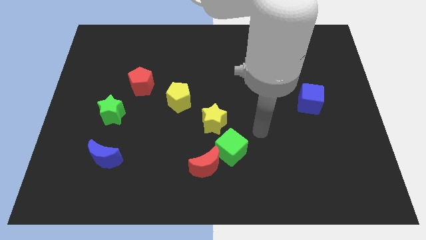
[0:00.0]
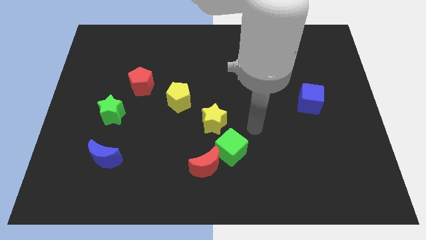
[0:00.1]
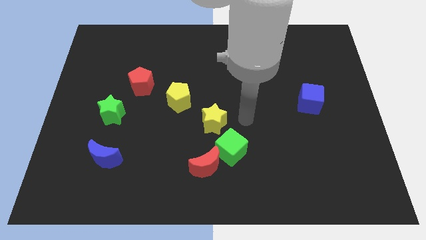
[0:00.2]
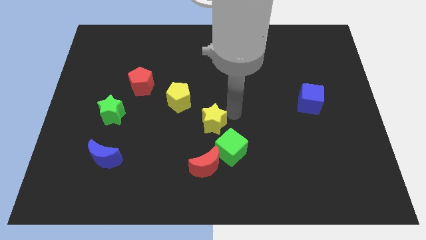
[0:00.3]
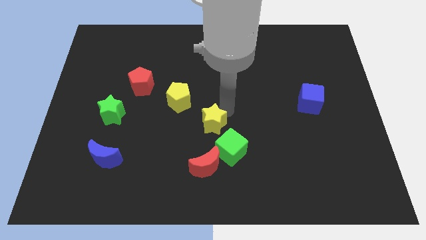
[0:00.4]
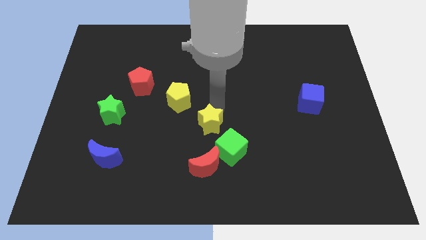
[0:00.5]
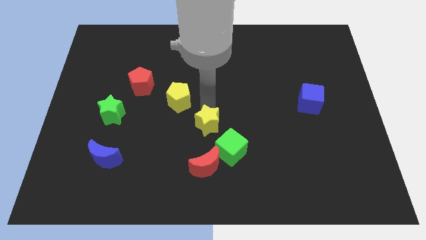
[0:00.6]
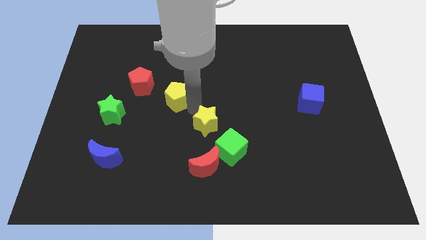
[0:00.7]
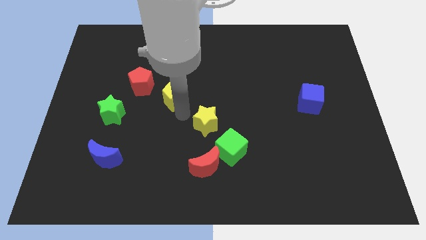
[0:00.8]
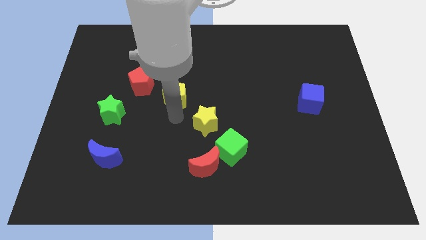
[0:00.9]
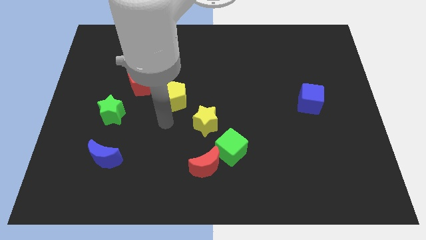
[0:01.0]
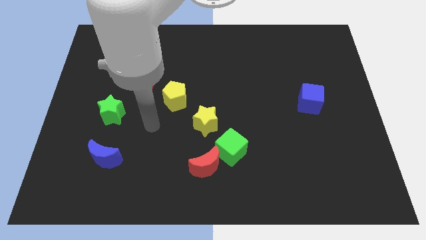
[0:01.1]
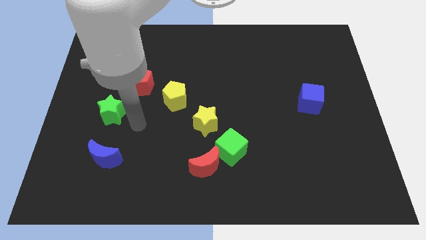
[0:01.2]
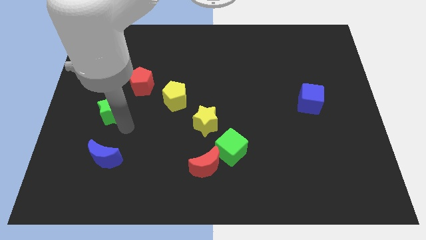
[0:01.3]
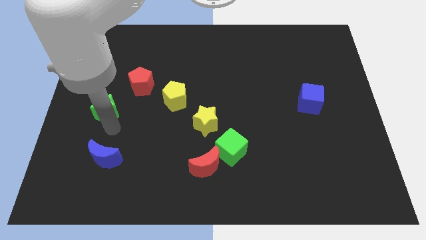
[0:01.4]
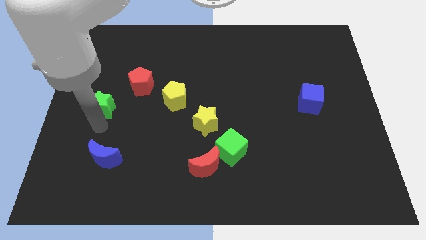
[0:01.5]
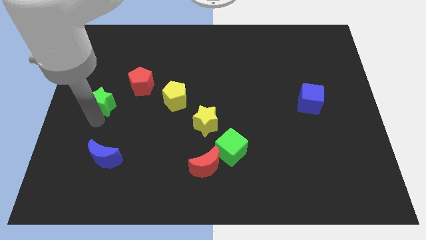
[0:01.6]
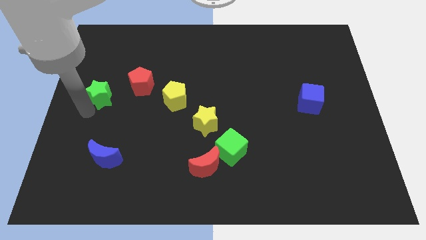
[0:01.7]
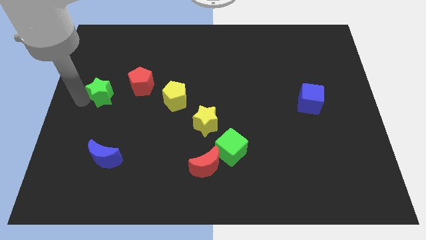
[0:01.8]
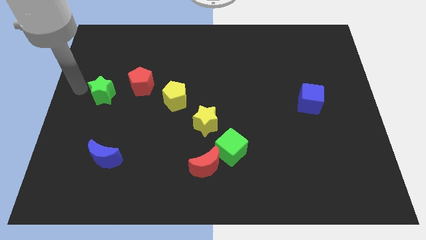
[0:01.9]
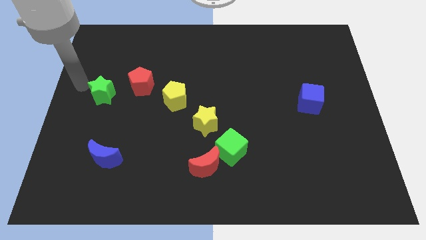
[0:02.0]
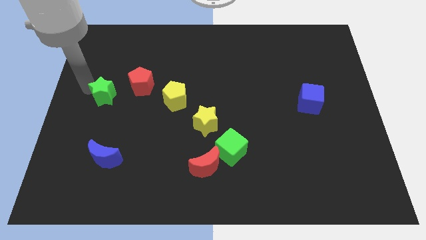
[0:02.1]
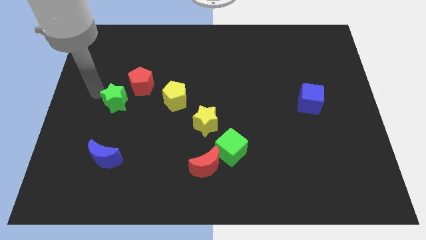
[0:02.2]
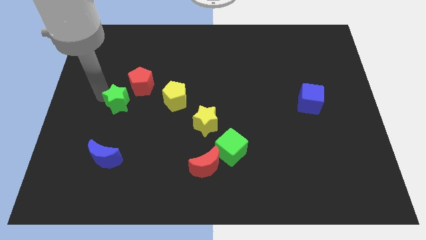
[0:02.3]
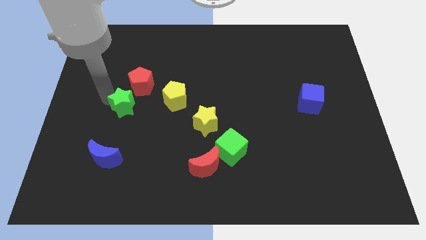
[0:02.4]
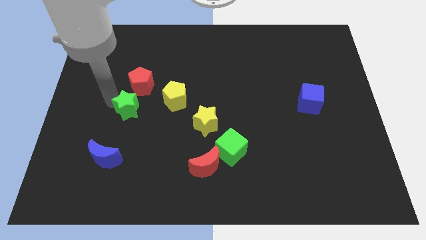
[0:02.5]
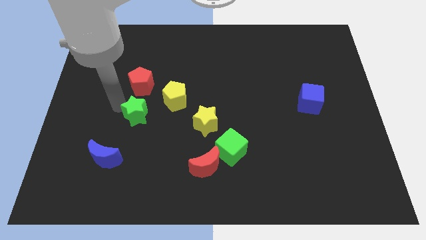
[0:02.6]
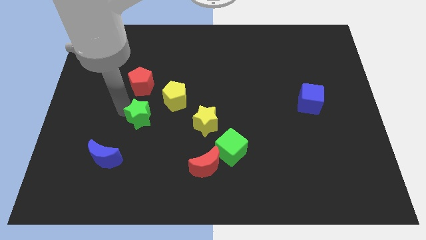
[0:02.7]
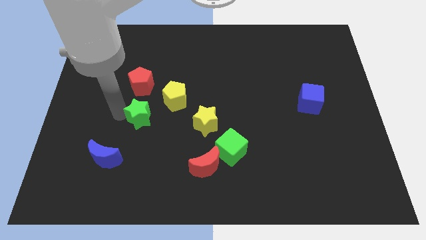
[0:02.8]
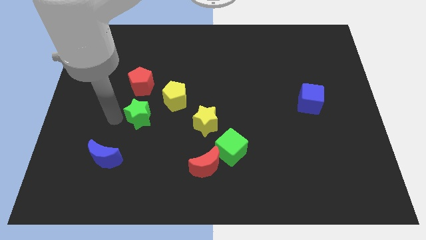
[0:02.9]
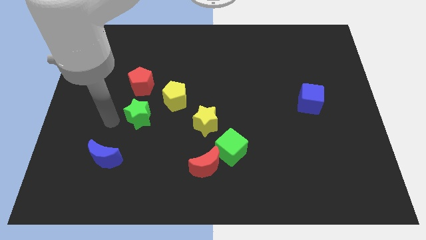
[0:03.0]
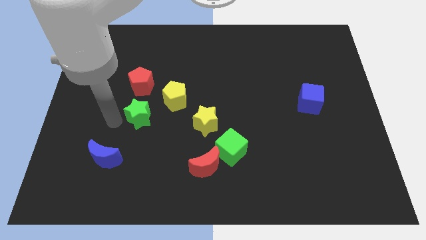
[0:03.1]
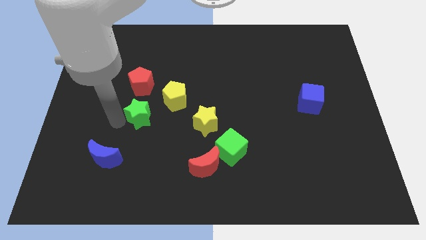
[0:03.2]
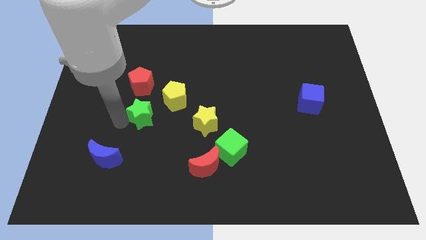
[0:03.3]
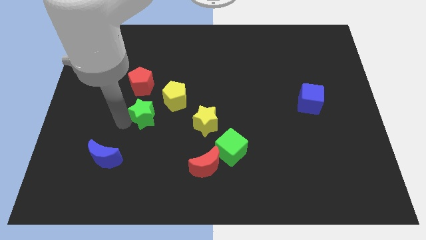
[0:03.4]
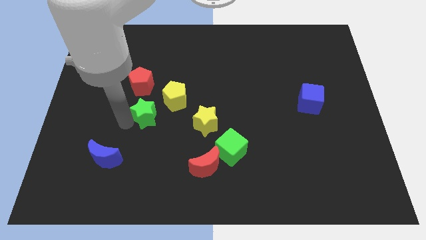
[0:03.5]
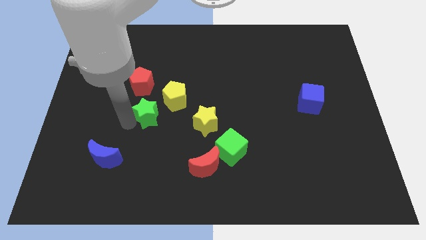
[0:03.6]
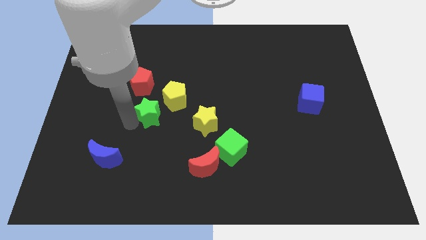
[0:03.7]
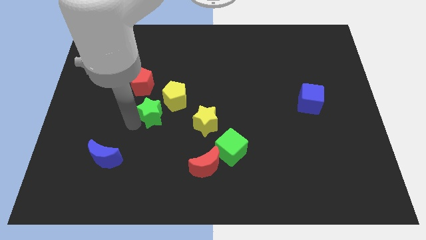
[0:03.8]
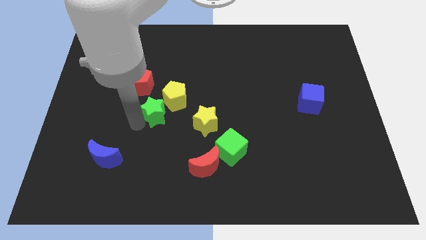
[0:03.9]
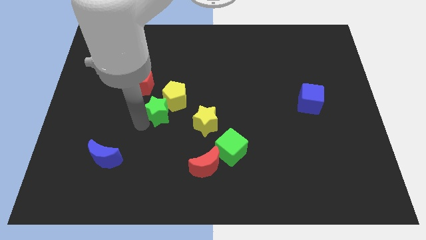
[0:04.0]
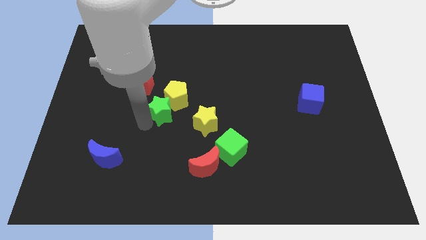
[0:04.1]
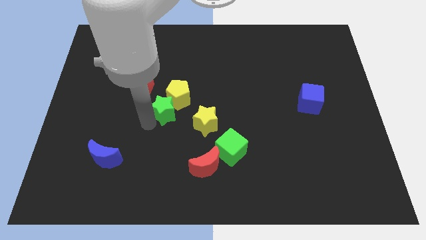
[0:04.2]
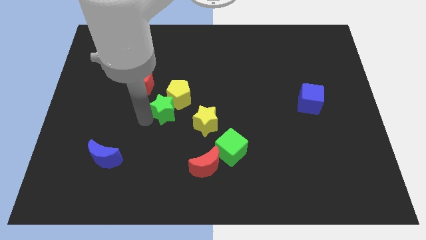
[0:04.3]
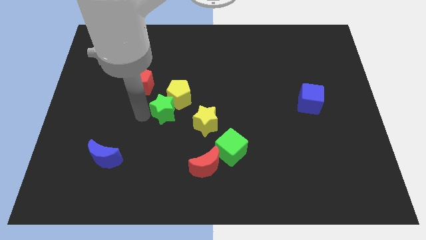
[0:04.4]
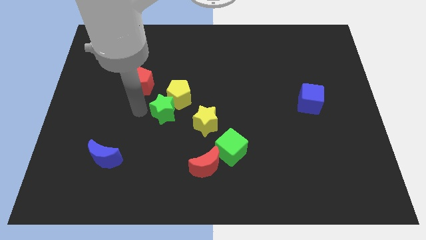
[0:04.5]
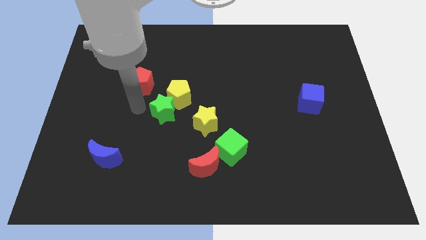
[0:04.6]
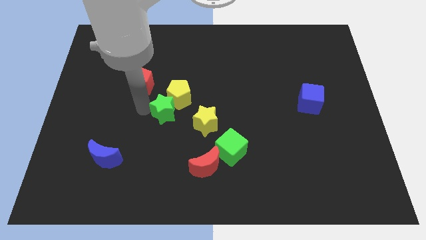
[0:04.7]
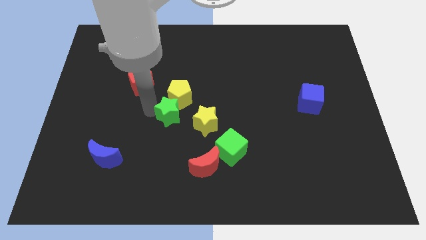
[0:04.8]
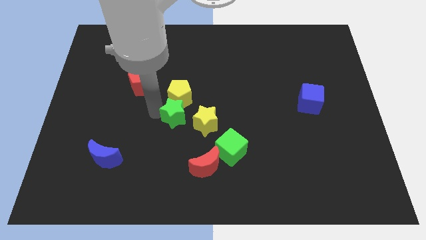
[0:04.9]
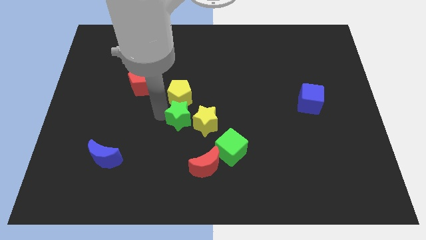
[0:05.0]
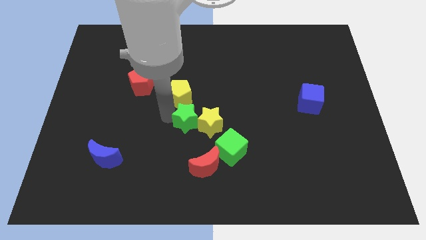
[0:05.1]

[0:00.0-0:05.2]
slide the green star close to the yellow star
